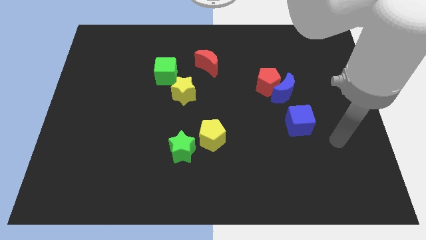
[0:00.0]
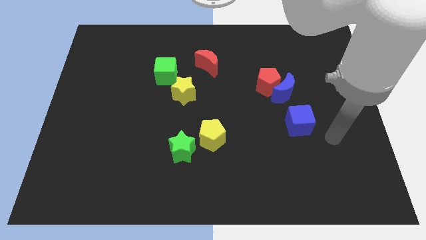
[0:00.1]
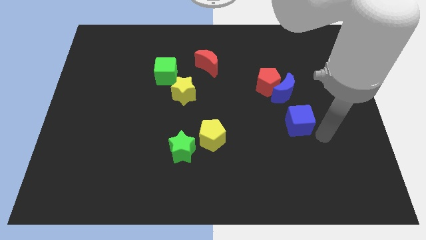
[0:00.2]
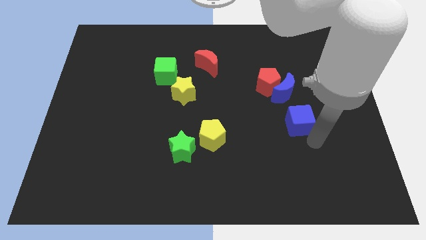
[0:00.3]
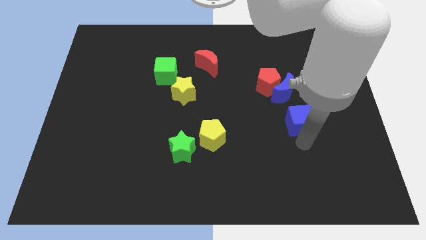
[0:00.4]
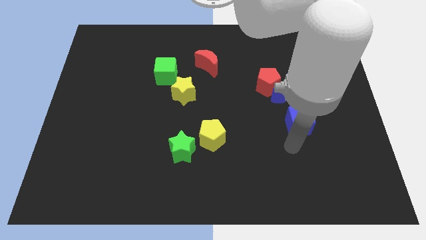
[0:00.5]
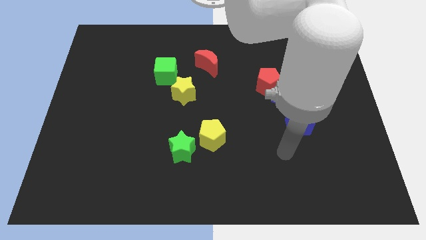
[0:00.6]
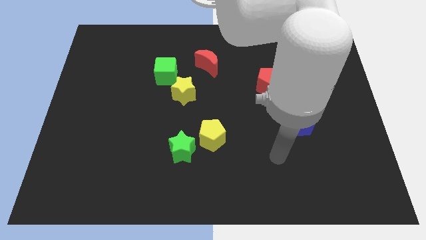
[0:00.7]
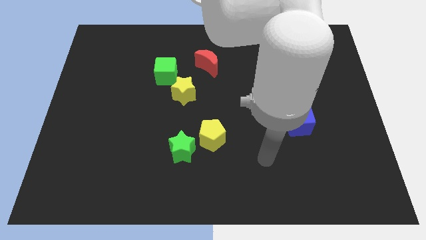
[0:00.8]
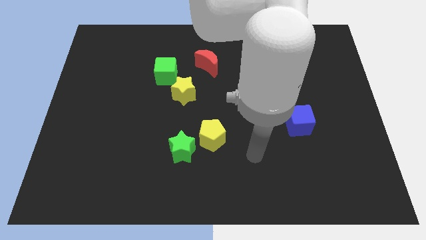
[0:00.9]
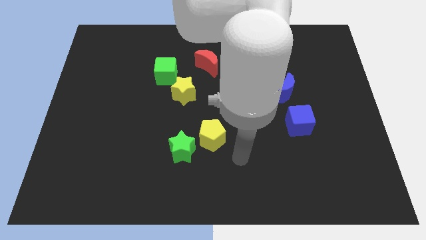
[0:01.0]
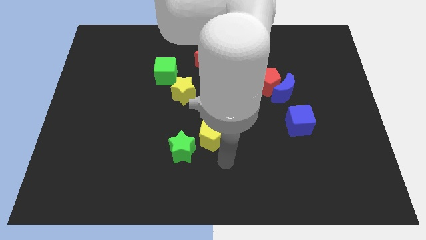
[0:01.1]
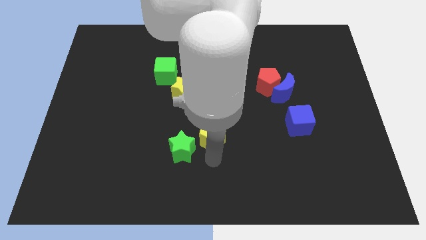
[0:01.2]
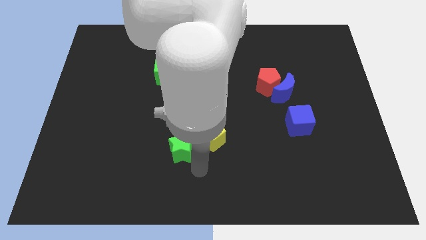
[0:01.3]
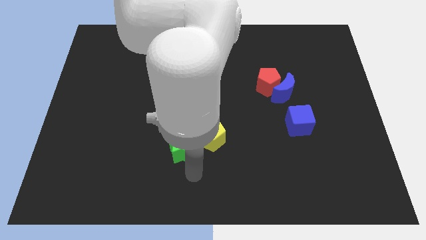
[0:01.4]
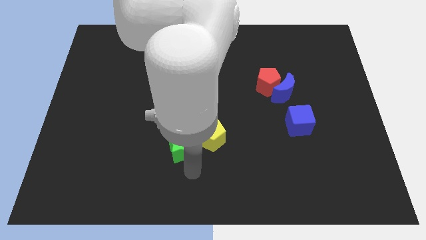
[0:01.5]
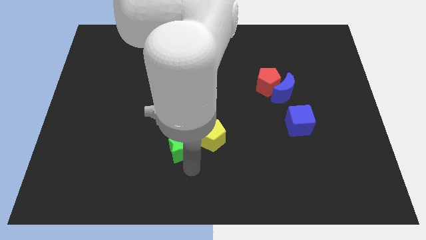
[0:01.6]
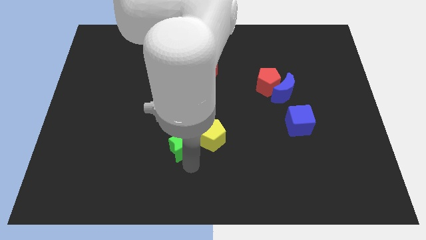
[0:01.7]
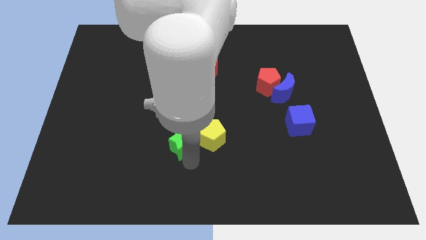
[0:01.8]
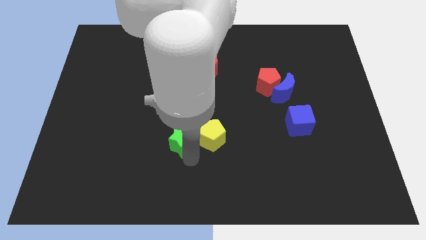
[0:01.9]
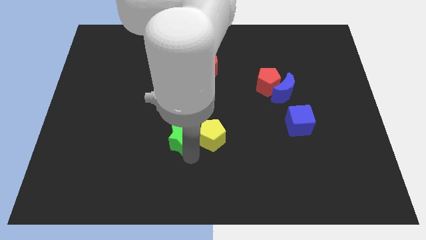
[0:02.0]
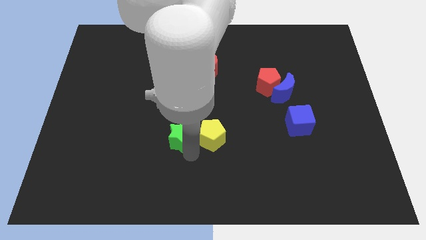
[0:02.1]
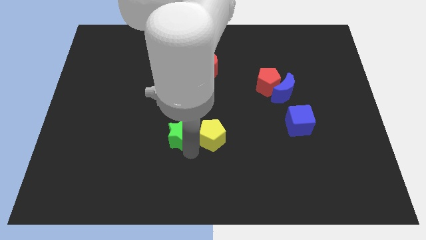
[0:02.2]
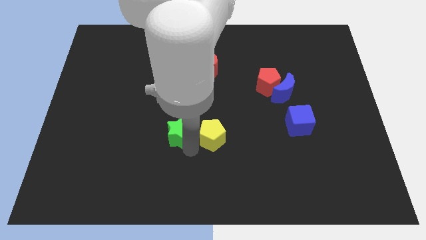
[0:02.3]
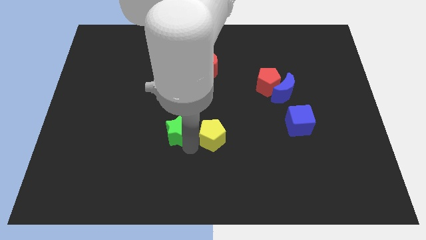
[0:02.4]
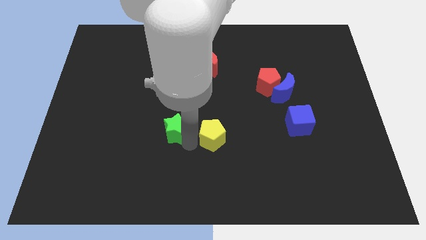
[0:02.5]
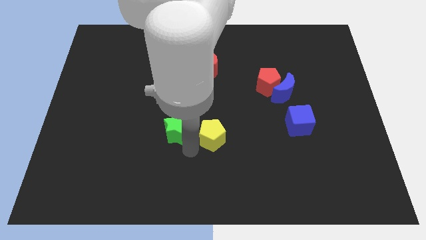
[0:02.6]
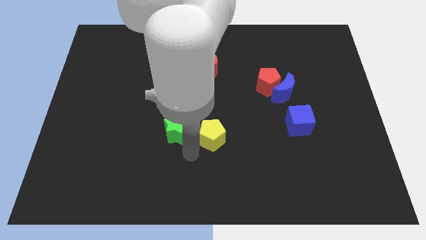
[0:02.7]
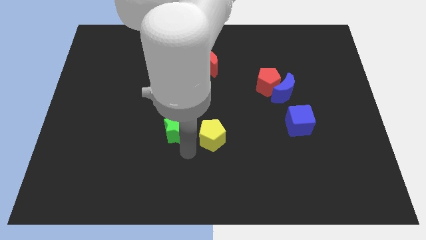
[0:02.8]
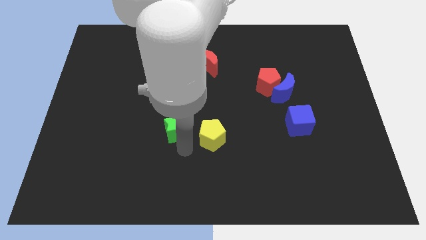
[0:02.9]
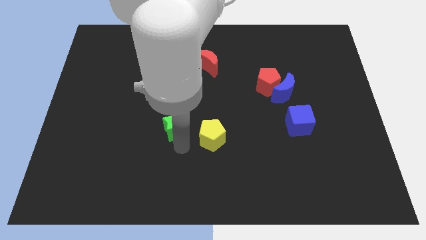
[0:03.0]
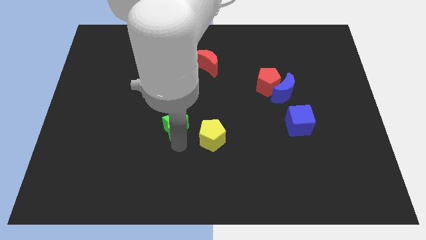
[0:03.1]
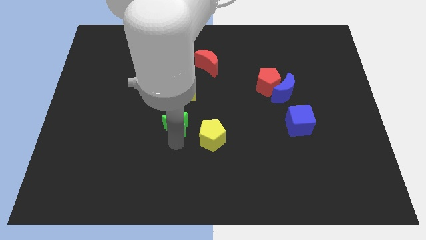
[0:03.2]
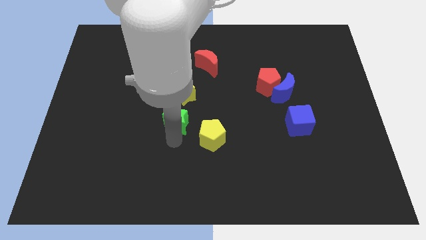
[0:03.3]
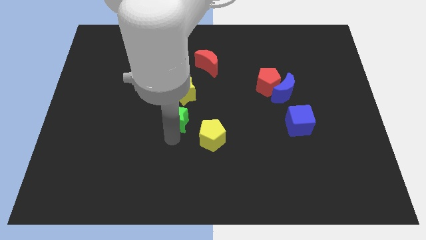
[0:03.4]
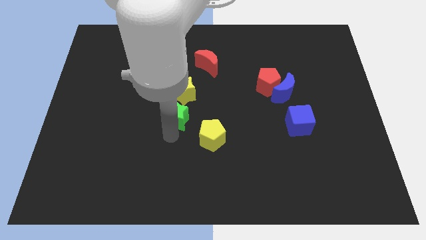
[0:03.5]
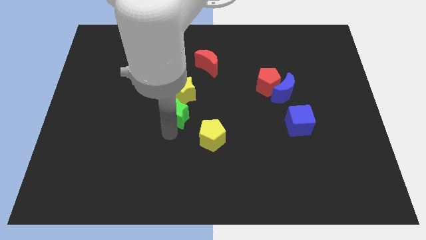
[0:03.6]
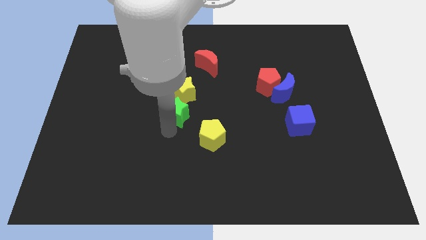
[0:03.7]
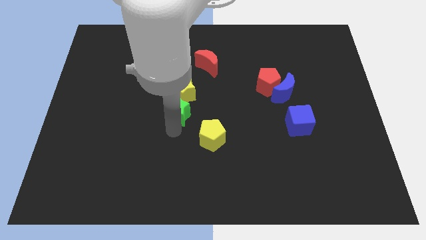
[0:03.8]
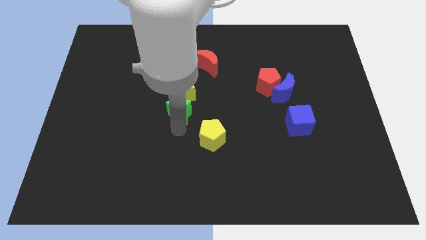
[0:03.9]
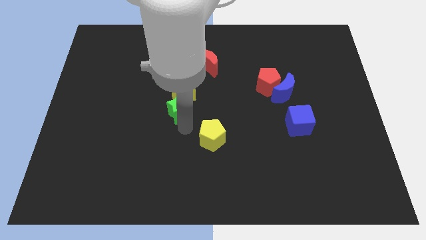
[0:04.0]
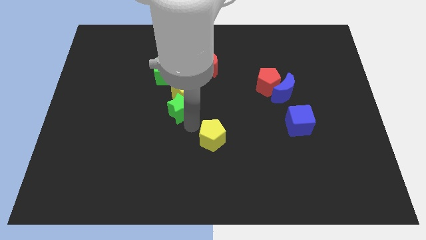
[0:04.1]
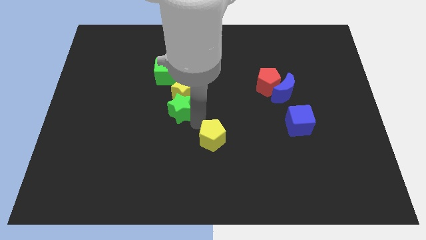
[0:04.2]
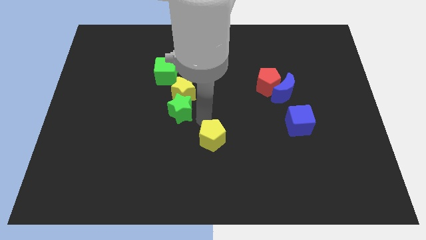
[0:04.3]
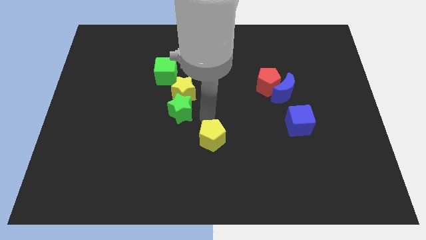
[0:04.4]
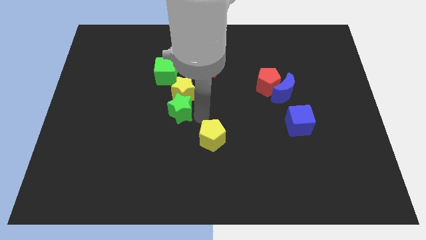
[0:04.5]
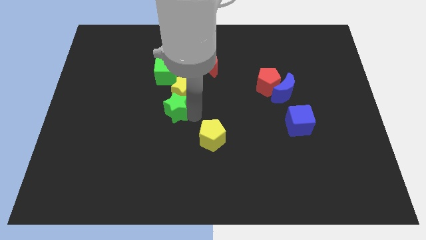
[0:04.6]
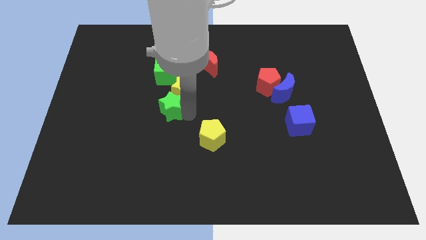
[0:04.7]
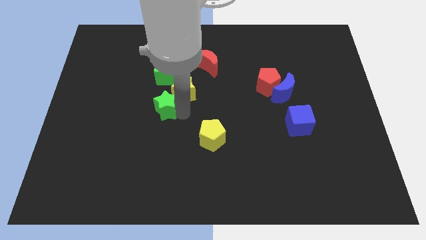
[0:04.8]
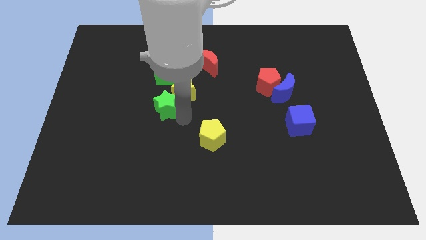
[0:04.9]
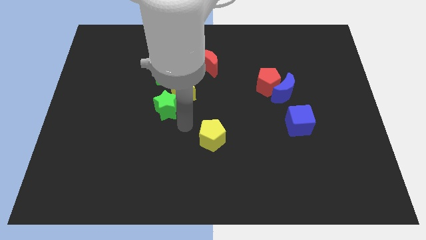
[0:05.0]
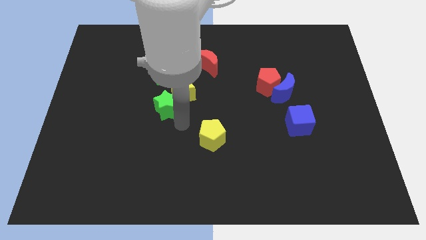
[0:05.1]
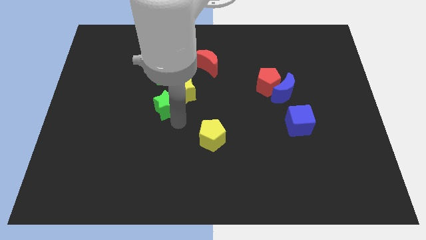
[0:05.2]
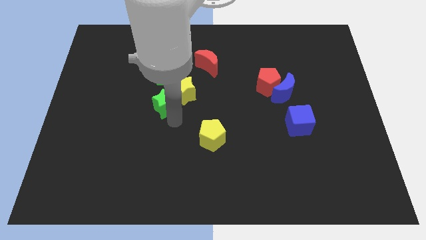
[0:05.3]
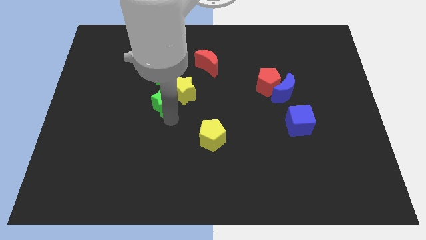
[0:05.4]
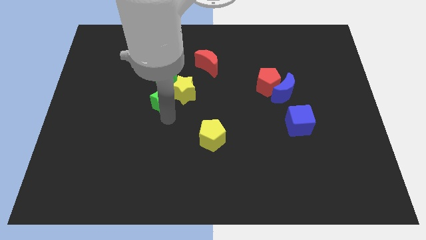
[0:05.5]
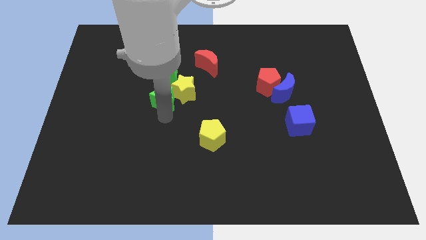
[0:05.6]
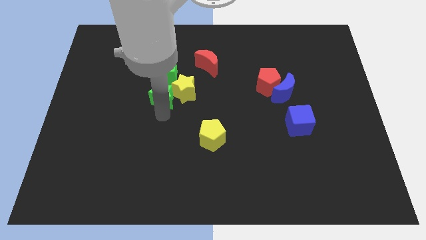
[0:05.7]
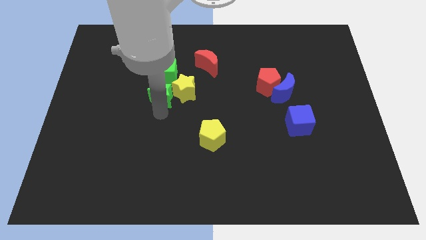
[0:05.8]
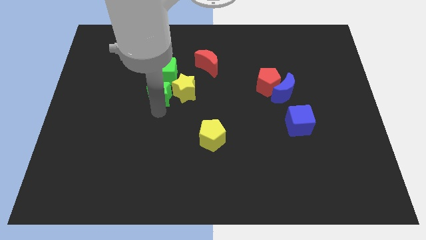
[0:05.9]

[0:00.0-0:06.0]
push the green star to the bottom left side of the green cube

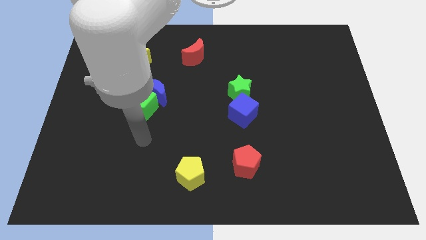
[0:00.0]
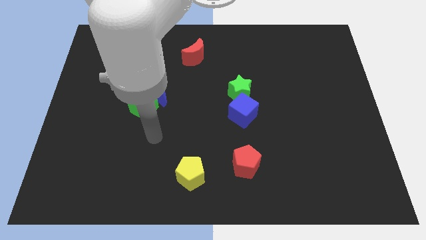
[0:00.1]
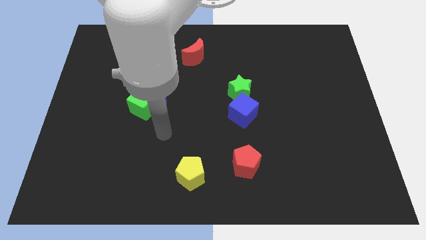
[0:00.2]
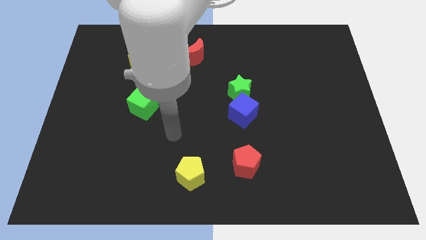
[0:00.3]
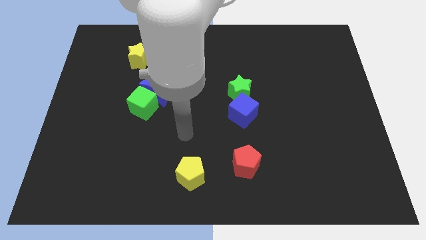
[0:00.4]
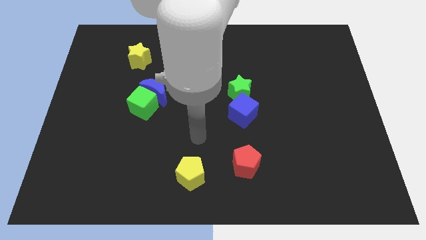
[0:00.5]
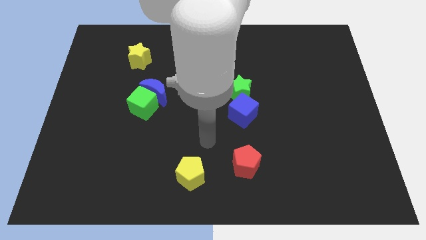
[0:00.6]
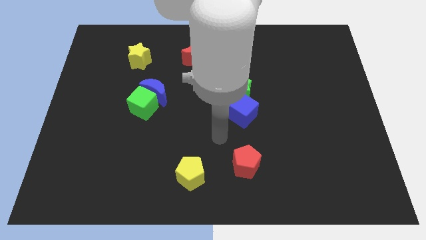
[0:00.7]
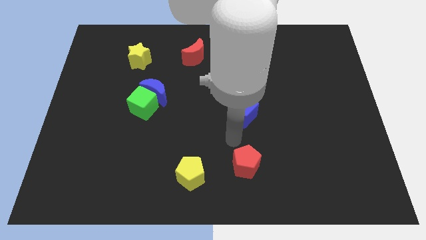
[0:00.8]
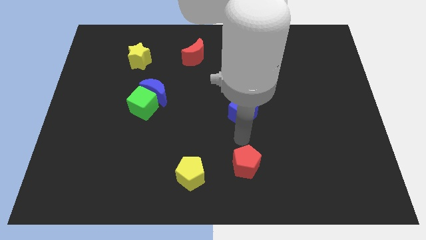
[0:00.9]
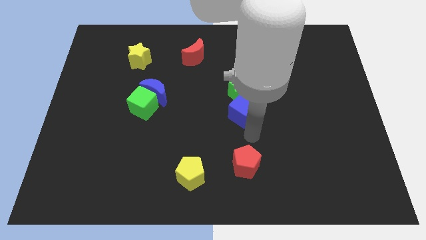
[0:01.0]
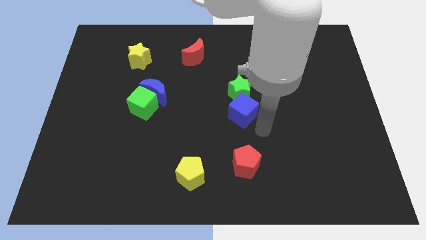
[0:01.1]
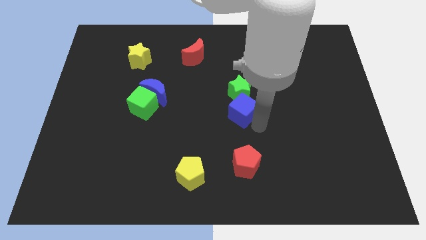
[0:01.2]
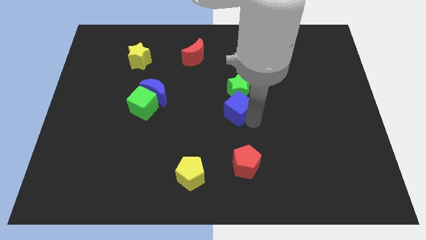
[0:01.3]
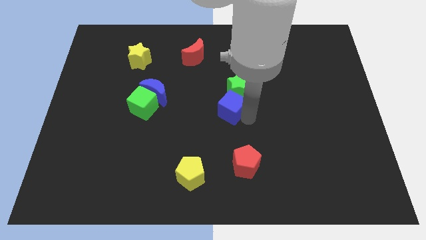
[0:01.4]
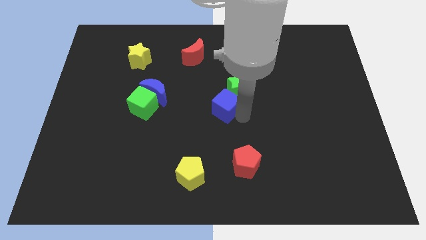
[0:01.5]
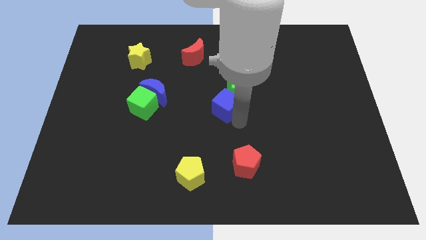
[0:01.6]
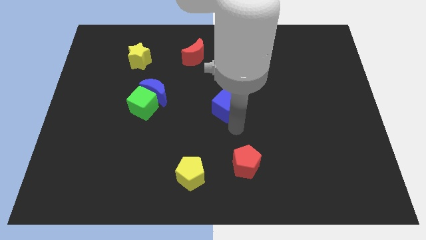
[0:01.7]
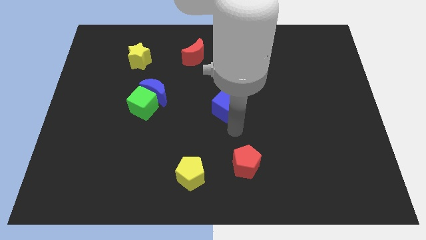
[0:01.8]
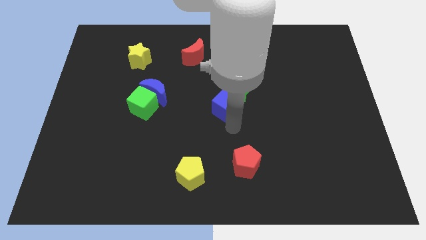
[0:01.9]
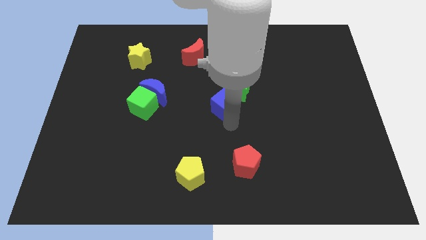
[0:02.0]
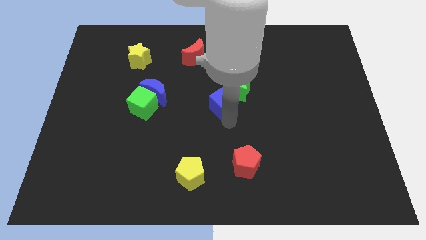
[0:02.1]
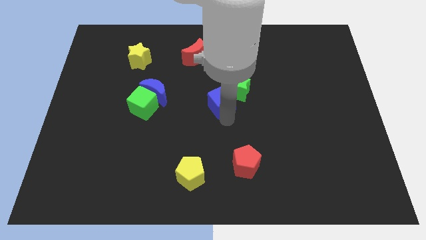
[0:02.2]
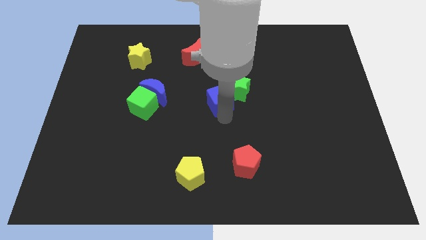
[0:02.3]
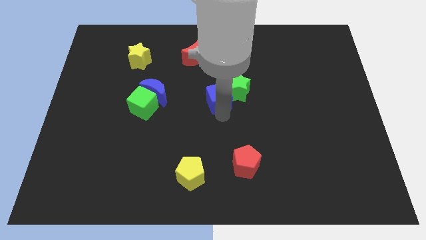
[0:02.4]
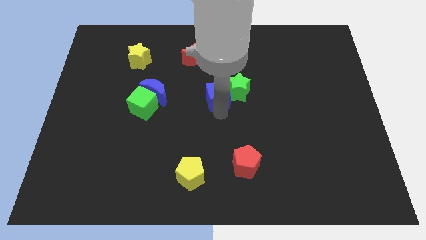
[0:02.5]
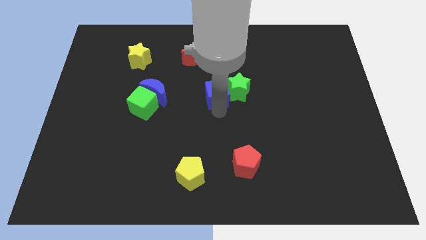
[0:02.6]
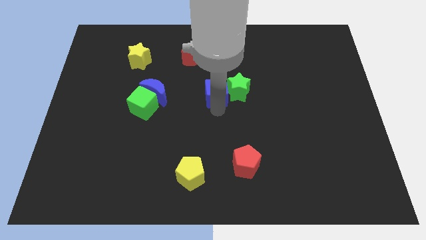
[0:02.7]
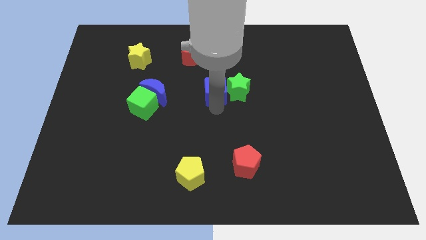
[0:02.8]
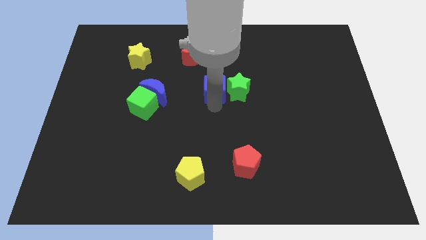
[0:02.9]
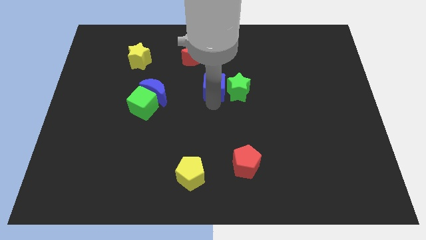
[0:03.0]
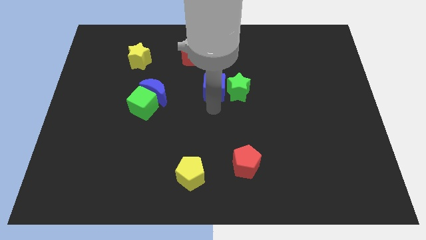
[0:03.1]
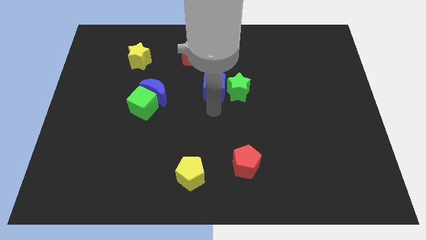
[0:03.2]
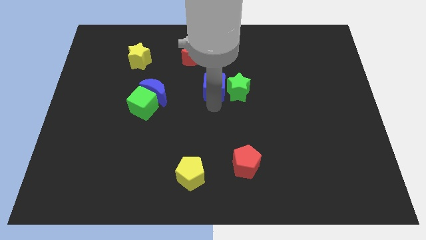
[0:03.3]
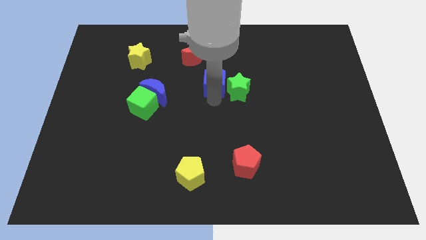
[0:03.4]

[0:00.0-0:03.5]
put the blue cube to the bottom right of the red moon
